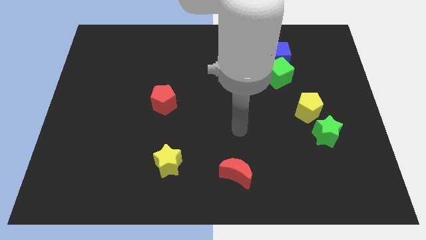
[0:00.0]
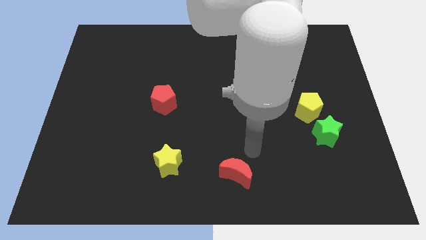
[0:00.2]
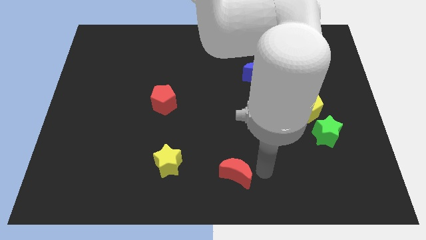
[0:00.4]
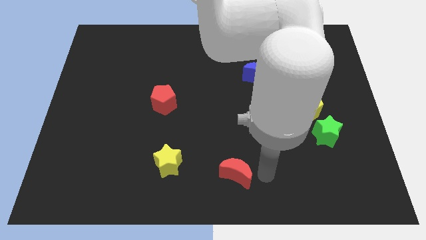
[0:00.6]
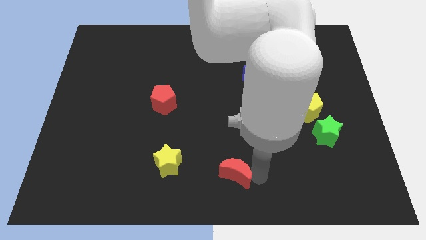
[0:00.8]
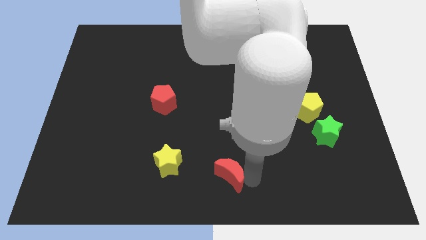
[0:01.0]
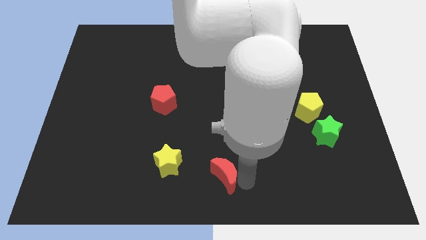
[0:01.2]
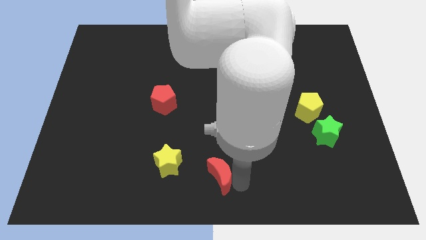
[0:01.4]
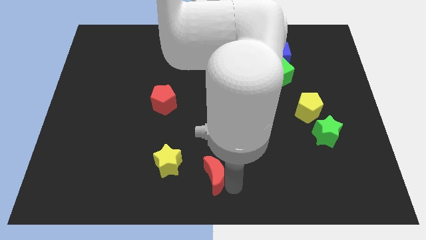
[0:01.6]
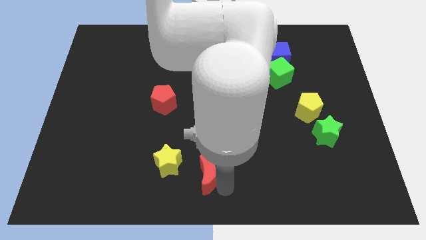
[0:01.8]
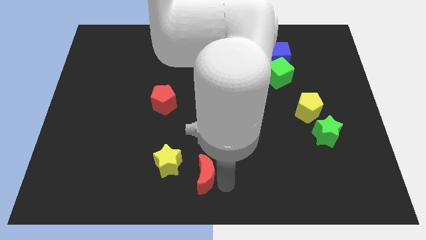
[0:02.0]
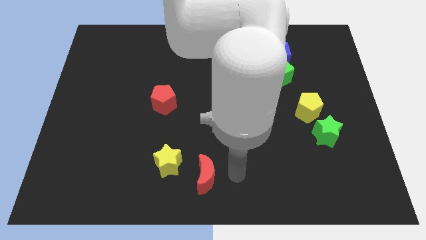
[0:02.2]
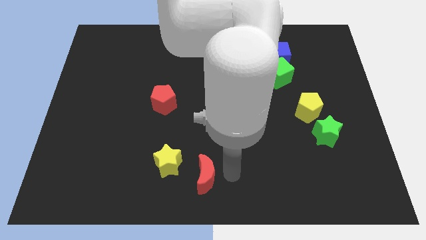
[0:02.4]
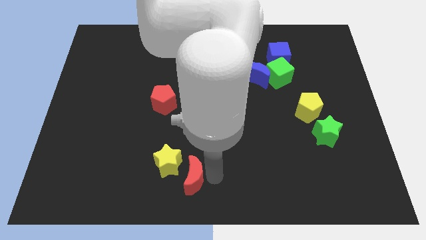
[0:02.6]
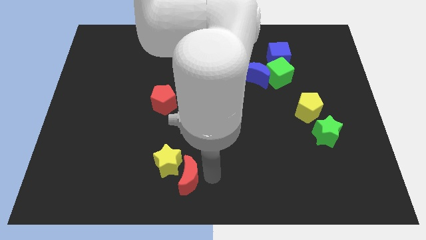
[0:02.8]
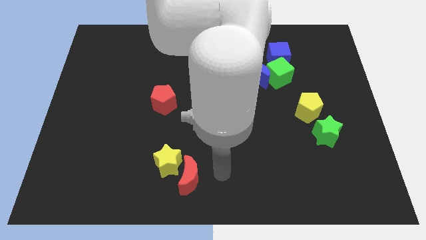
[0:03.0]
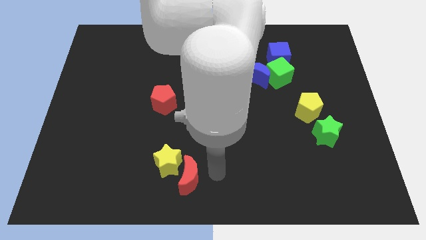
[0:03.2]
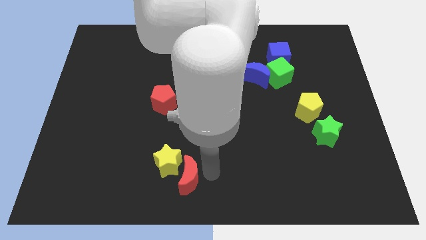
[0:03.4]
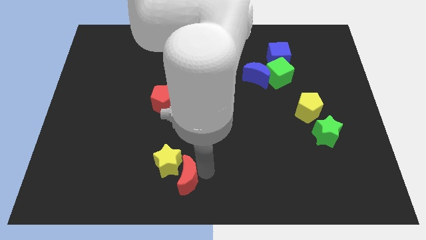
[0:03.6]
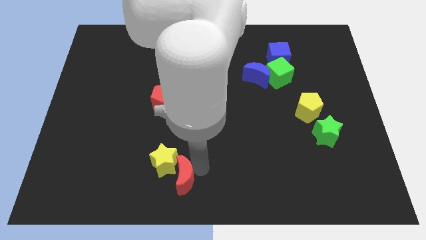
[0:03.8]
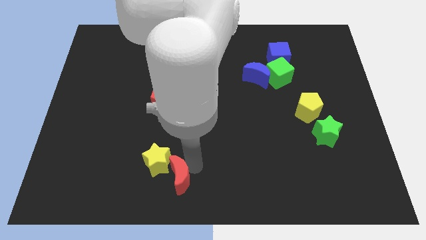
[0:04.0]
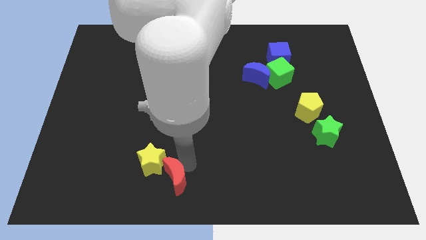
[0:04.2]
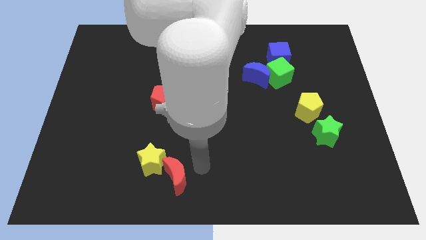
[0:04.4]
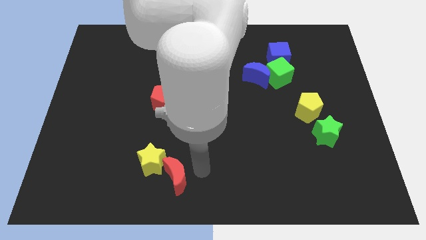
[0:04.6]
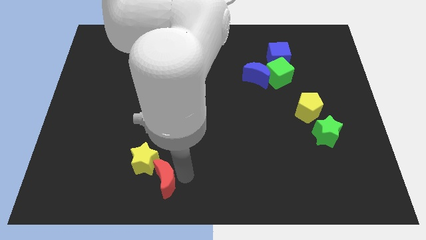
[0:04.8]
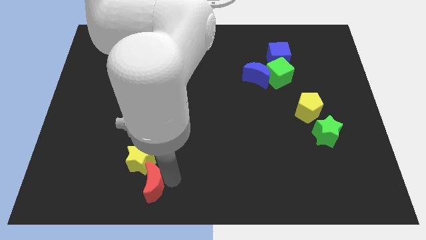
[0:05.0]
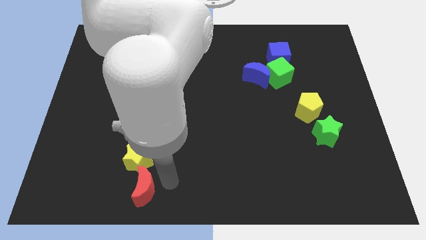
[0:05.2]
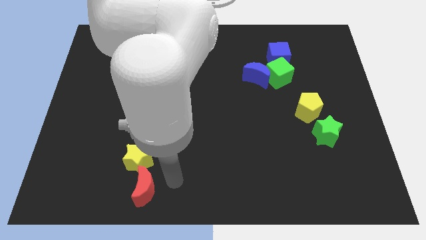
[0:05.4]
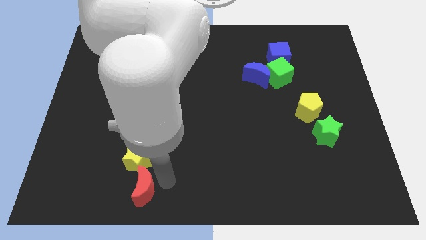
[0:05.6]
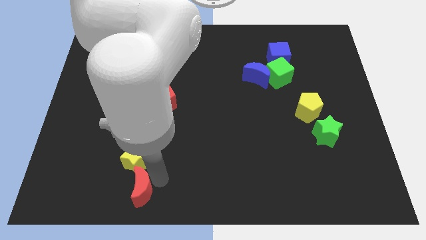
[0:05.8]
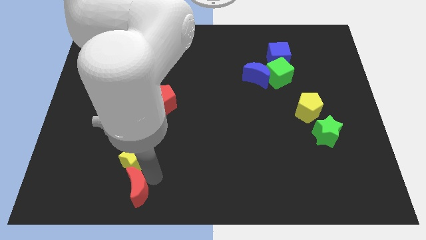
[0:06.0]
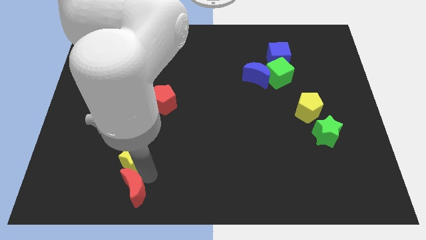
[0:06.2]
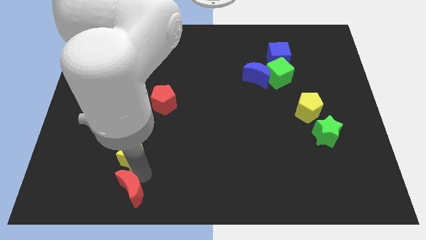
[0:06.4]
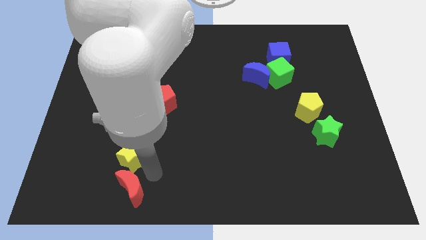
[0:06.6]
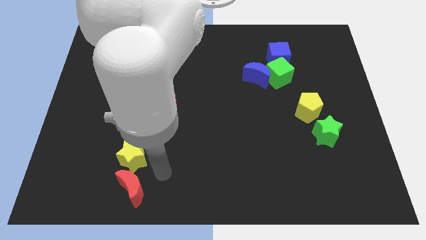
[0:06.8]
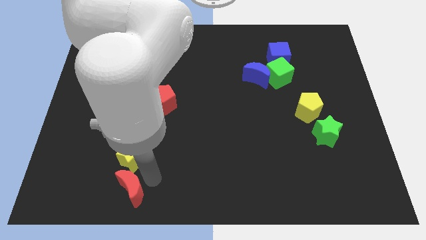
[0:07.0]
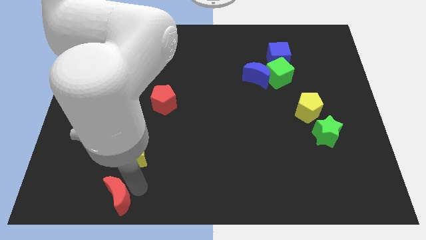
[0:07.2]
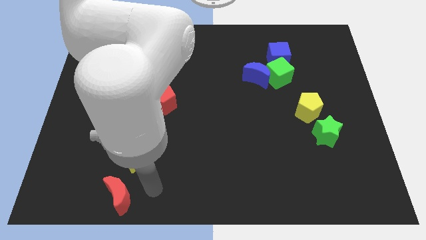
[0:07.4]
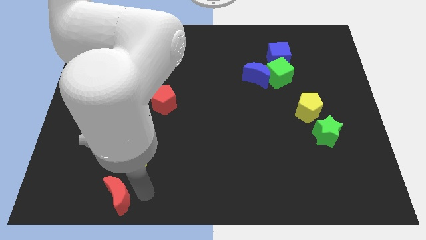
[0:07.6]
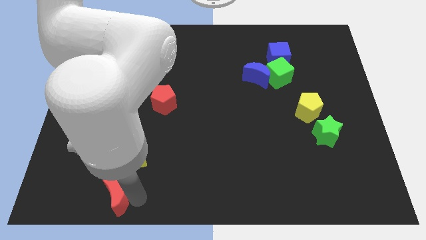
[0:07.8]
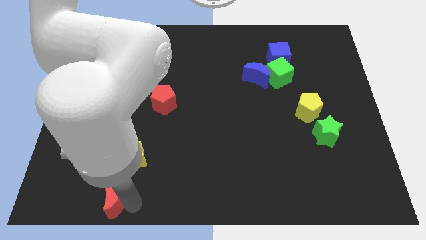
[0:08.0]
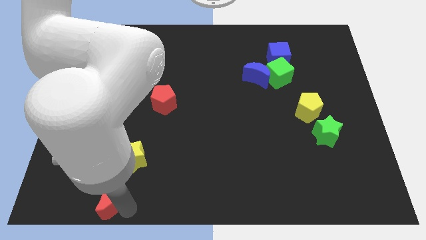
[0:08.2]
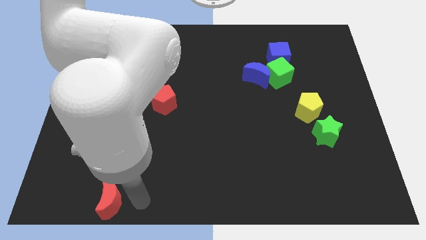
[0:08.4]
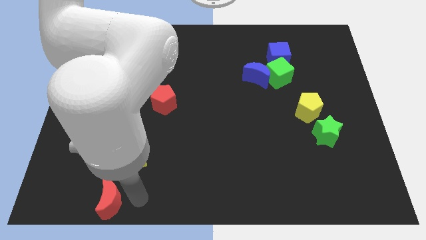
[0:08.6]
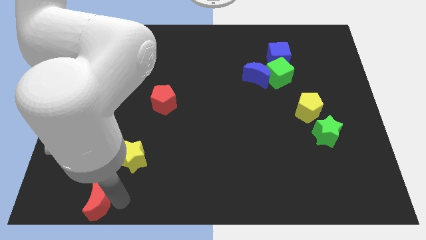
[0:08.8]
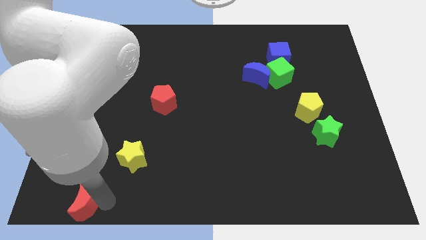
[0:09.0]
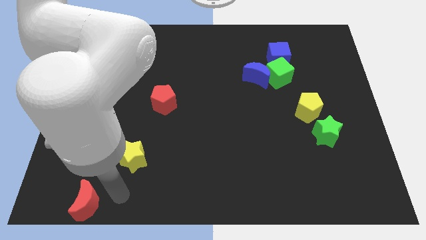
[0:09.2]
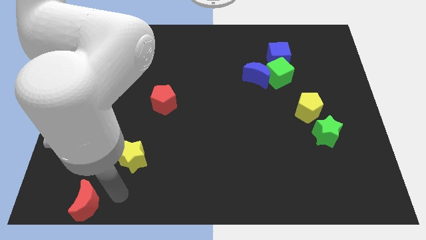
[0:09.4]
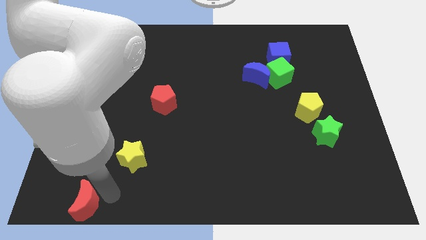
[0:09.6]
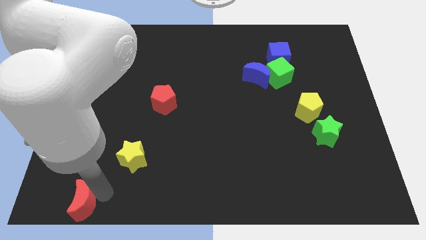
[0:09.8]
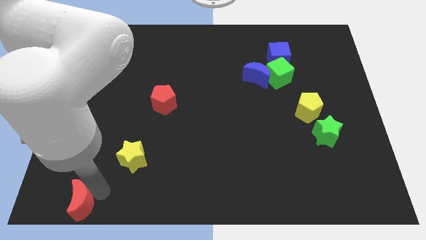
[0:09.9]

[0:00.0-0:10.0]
slide the red moon to the bottom left of the board

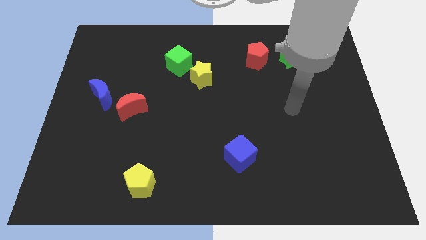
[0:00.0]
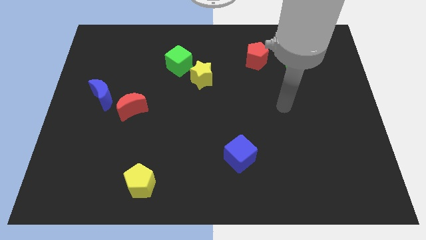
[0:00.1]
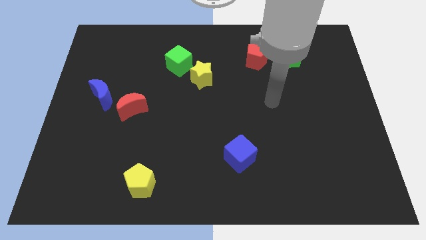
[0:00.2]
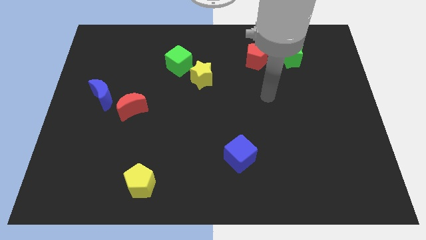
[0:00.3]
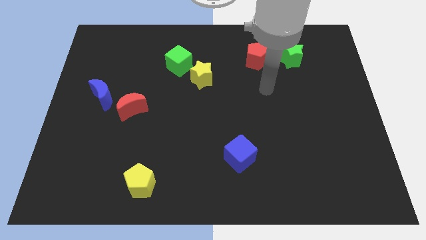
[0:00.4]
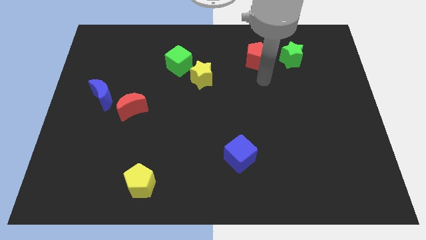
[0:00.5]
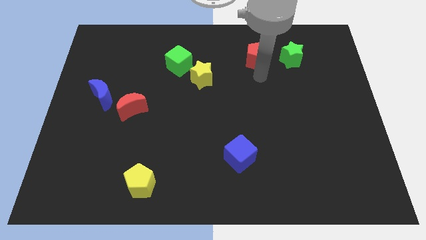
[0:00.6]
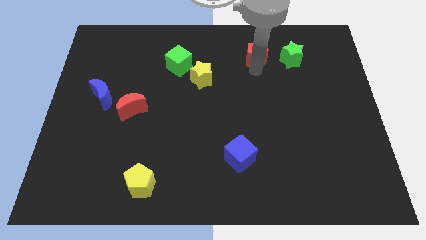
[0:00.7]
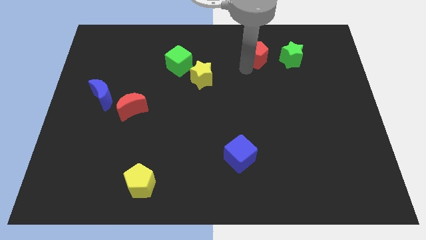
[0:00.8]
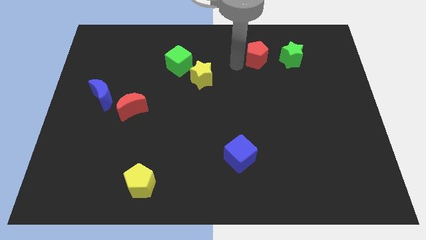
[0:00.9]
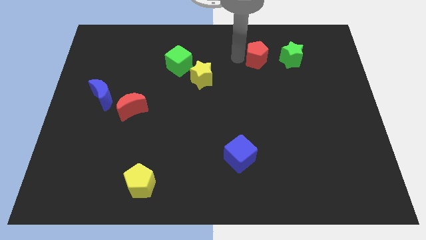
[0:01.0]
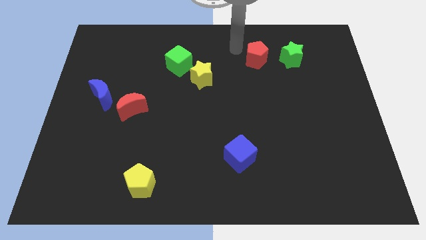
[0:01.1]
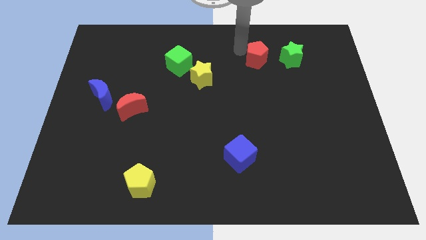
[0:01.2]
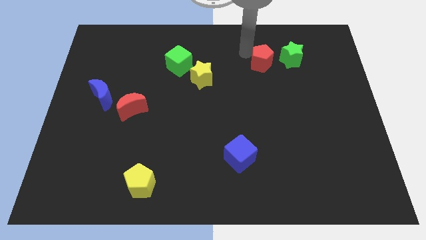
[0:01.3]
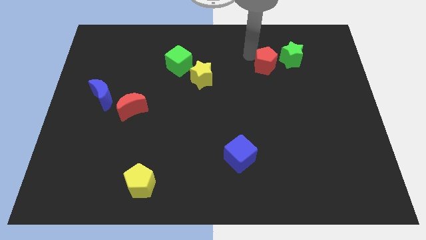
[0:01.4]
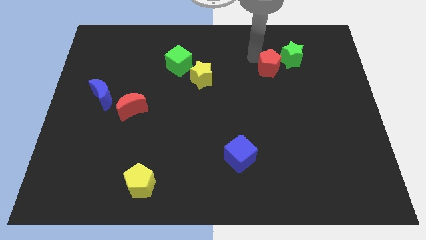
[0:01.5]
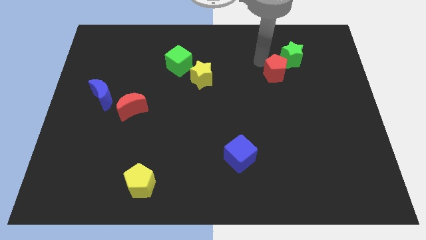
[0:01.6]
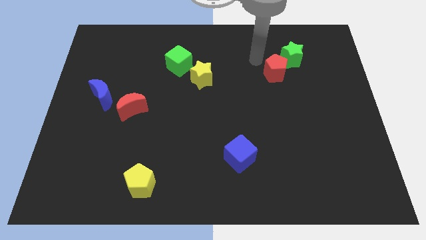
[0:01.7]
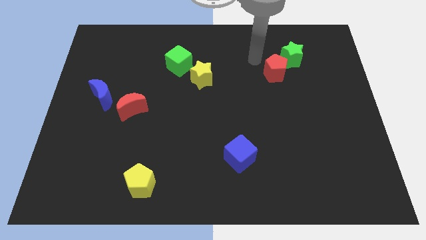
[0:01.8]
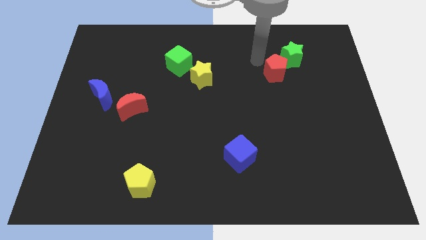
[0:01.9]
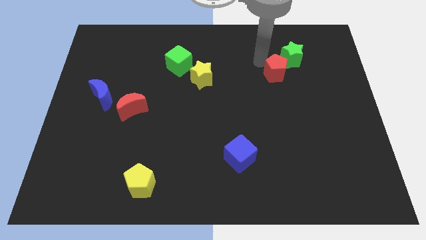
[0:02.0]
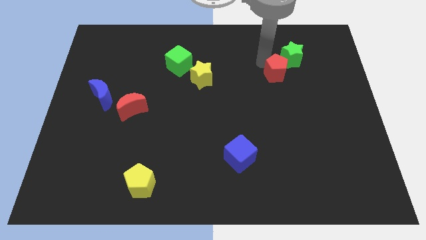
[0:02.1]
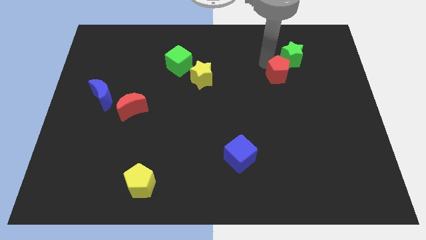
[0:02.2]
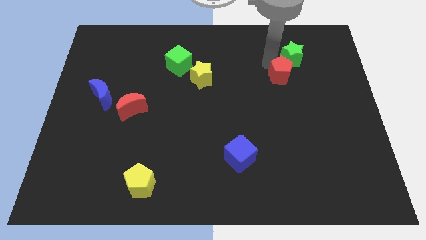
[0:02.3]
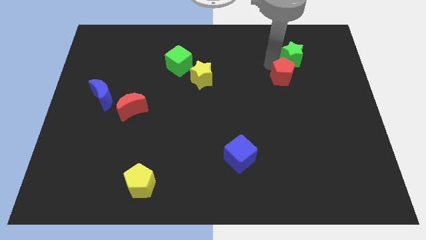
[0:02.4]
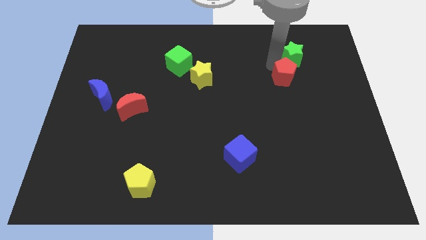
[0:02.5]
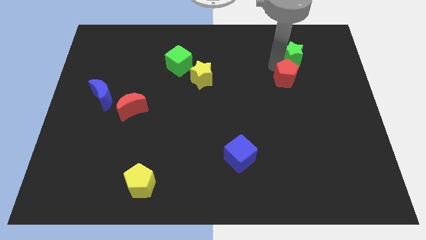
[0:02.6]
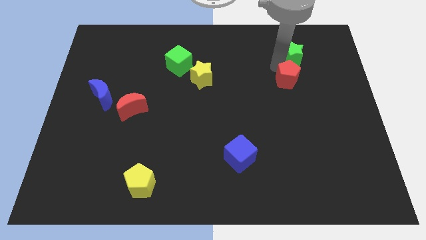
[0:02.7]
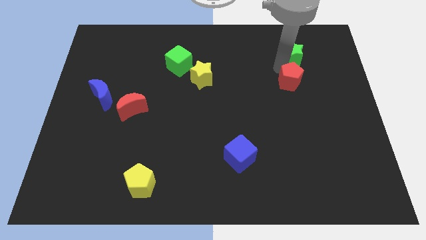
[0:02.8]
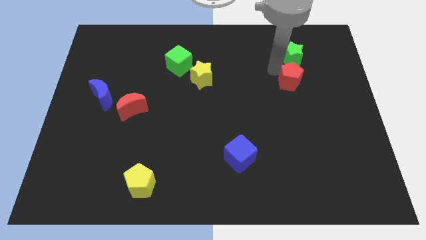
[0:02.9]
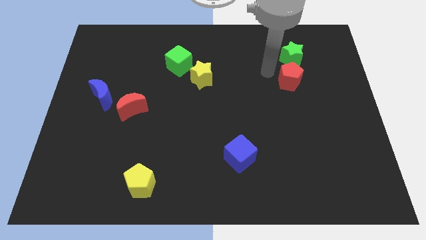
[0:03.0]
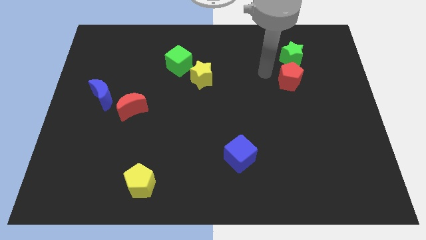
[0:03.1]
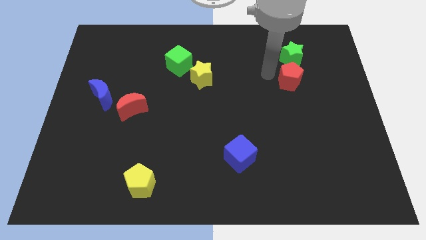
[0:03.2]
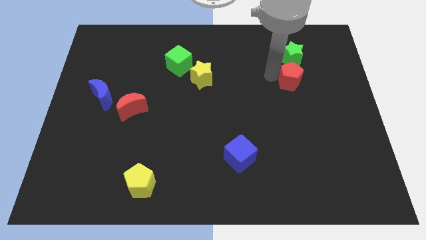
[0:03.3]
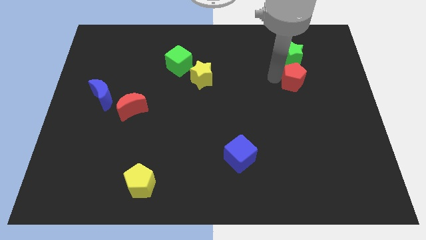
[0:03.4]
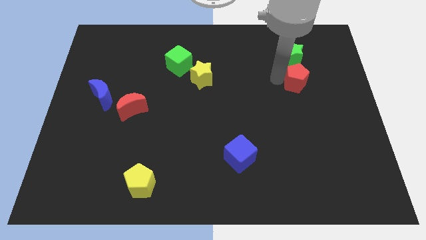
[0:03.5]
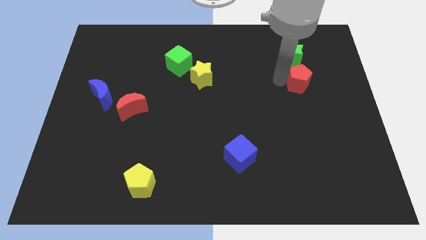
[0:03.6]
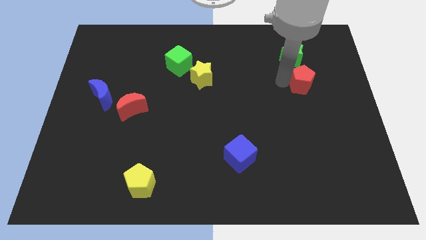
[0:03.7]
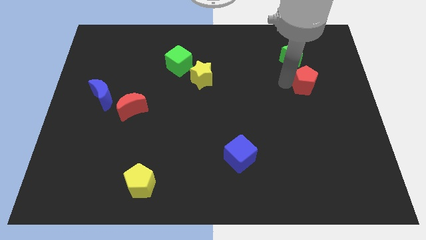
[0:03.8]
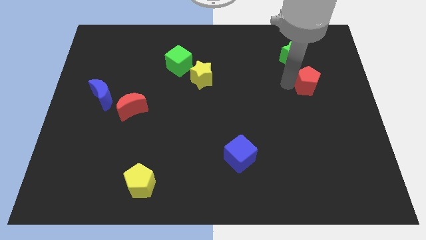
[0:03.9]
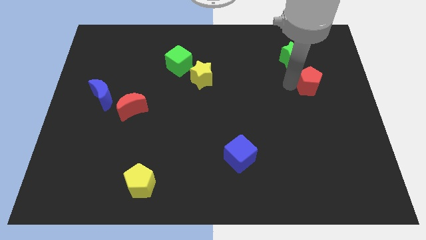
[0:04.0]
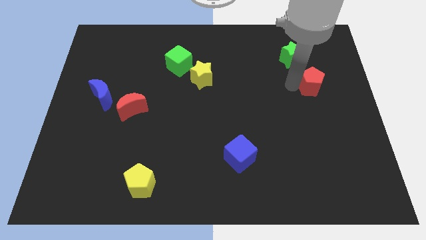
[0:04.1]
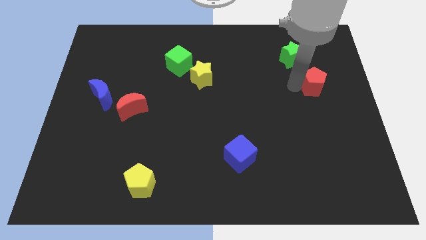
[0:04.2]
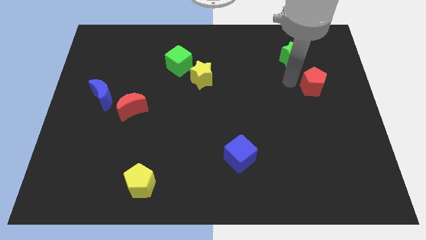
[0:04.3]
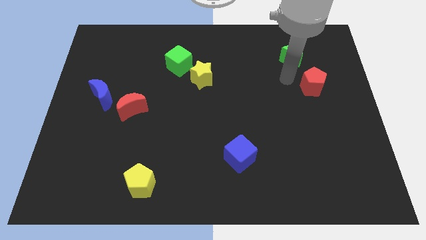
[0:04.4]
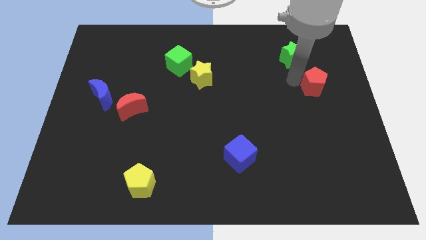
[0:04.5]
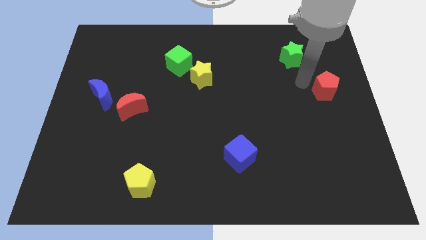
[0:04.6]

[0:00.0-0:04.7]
move the red pentagon to the right side
